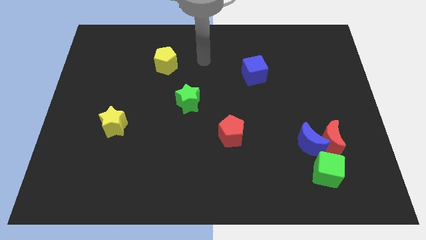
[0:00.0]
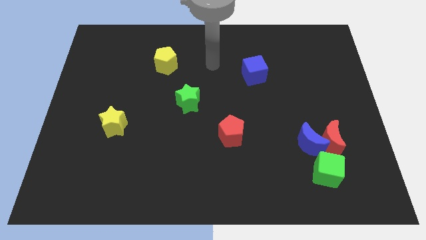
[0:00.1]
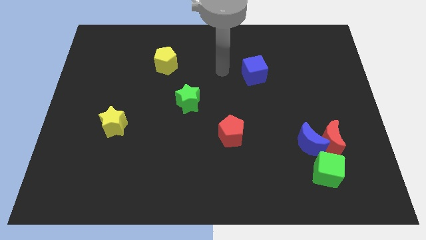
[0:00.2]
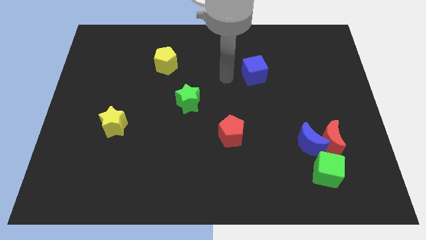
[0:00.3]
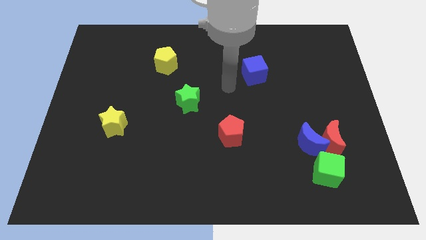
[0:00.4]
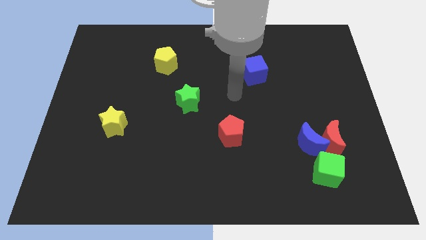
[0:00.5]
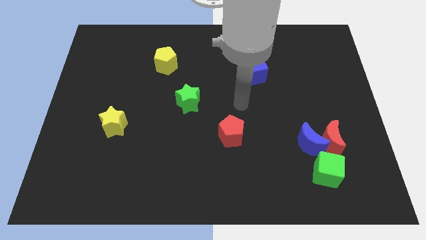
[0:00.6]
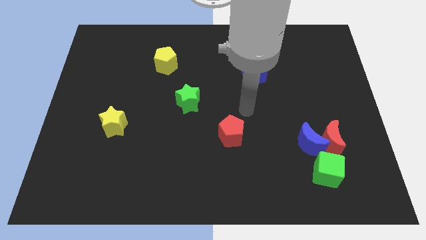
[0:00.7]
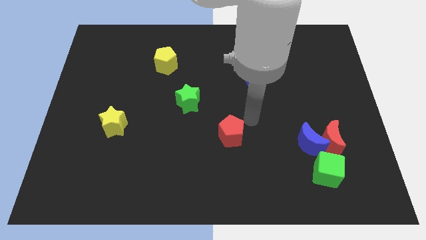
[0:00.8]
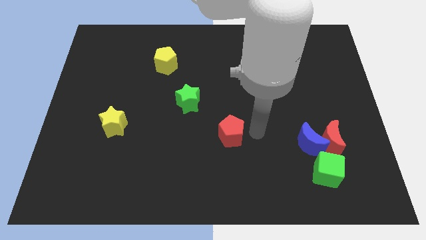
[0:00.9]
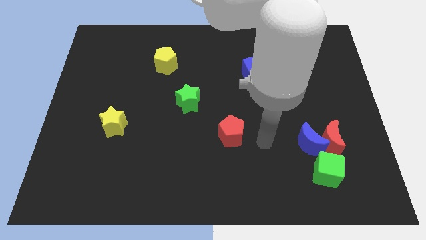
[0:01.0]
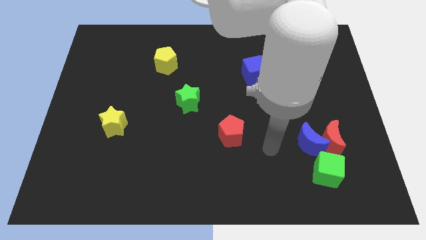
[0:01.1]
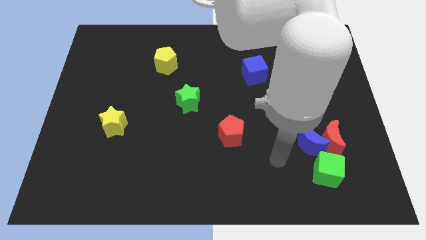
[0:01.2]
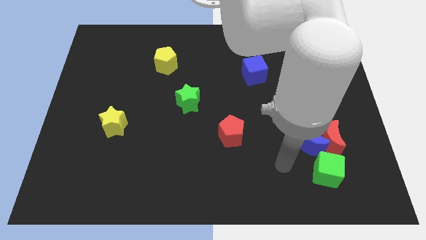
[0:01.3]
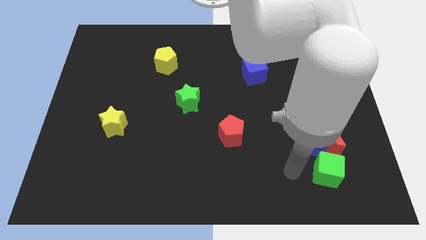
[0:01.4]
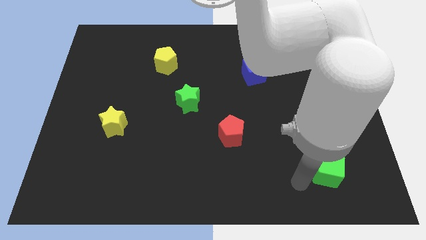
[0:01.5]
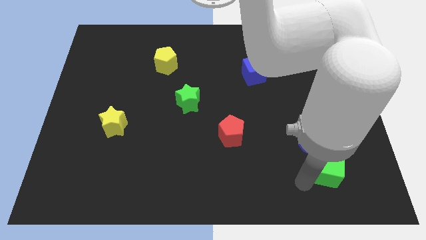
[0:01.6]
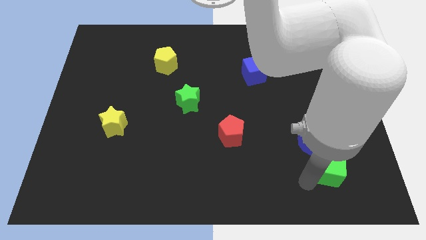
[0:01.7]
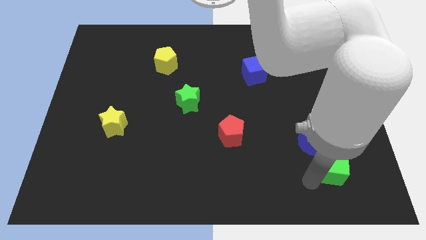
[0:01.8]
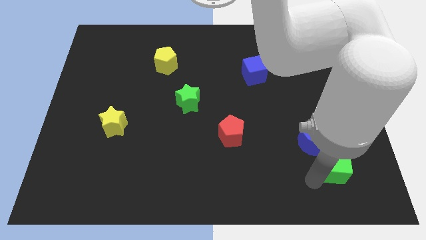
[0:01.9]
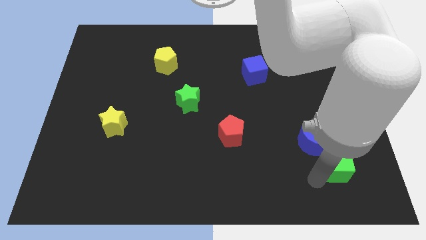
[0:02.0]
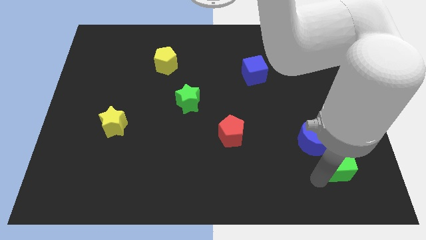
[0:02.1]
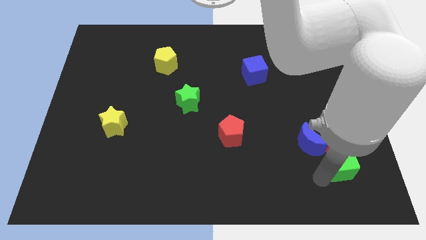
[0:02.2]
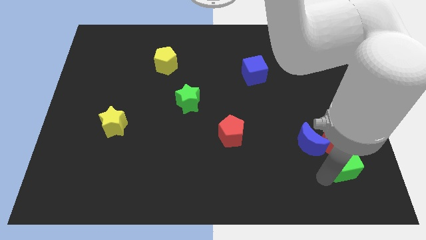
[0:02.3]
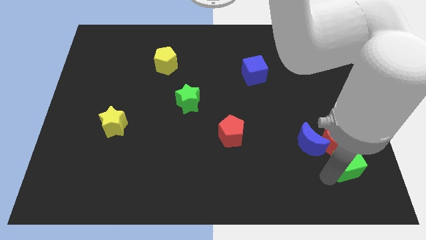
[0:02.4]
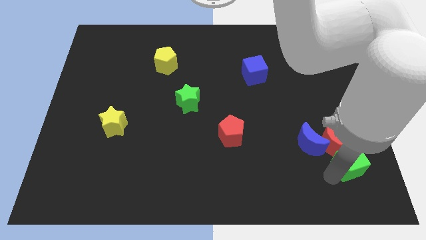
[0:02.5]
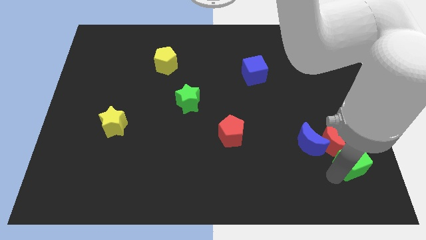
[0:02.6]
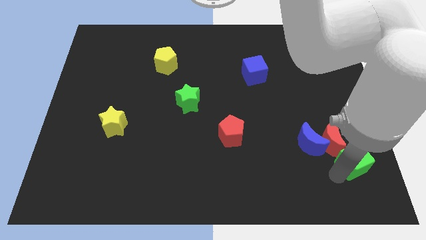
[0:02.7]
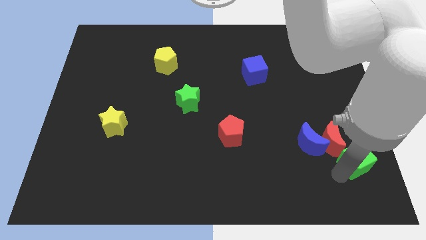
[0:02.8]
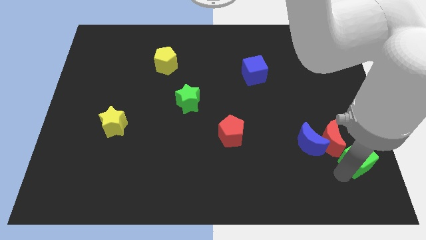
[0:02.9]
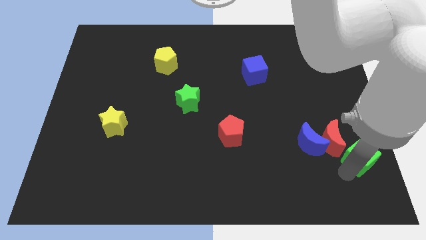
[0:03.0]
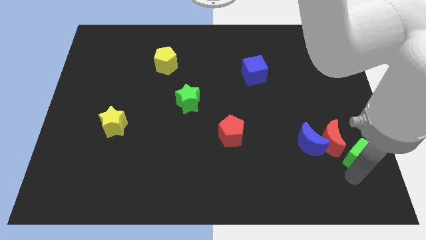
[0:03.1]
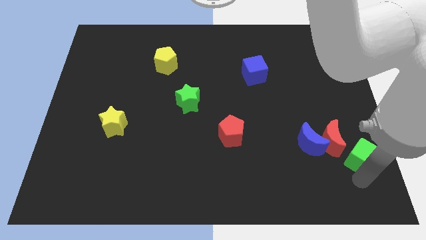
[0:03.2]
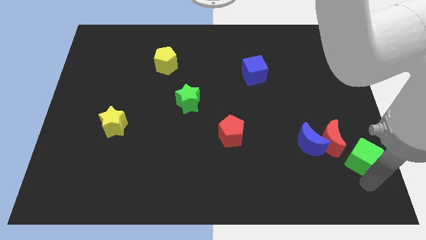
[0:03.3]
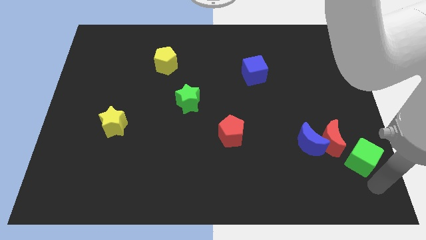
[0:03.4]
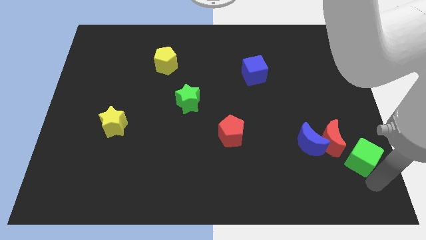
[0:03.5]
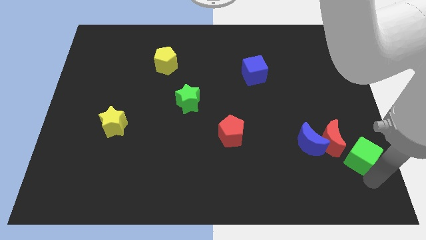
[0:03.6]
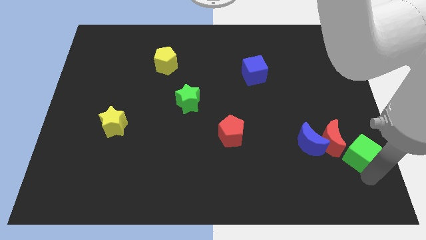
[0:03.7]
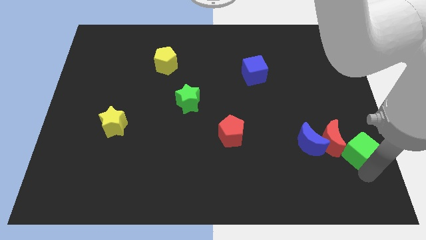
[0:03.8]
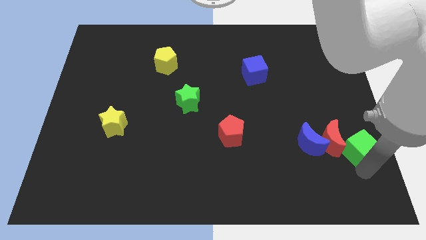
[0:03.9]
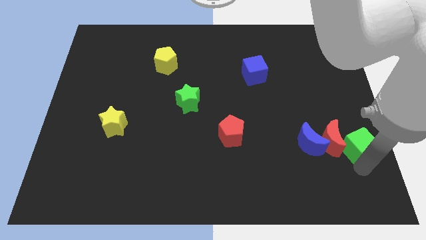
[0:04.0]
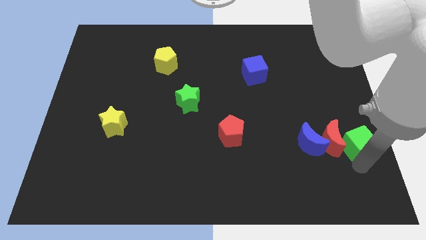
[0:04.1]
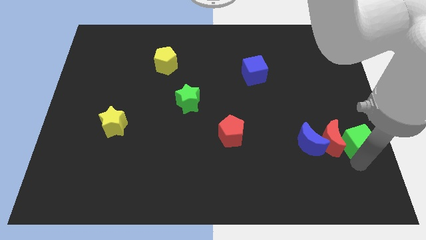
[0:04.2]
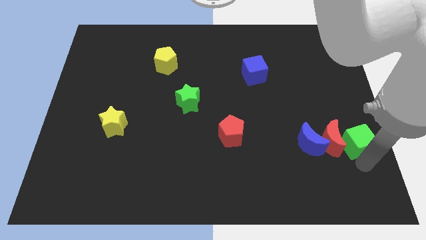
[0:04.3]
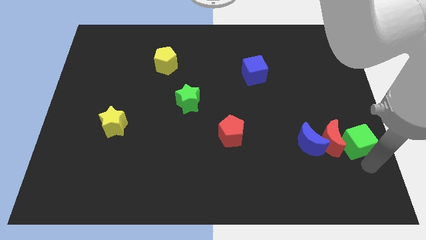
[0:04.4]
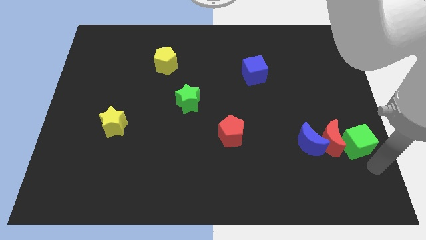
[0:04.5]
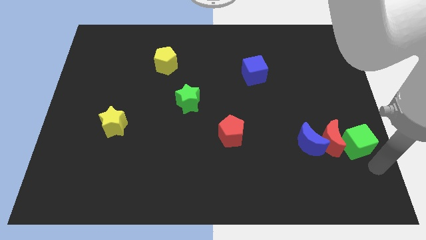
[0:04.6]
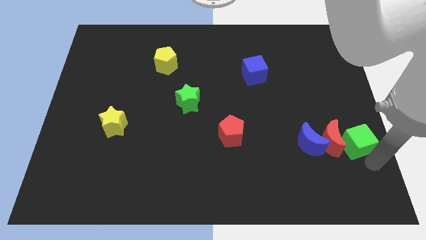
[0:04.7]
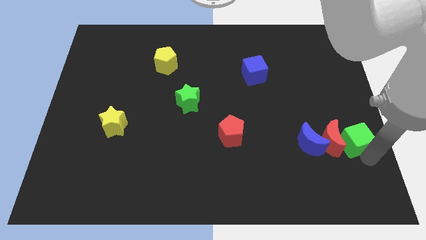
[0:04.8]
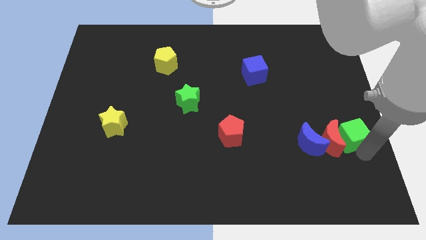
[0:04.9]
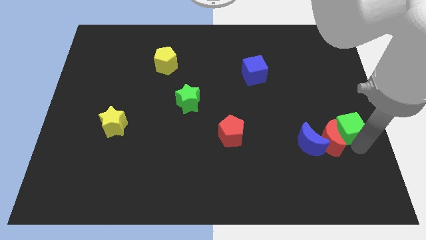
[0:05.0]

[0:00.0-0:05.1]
slide the green cube slightly up

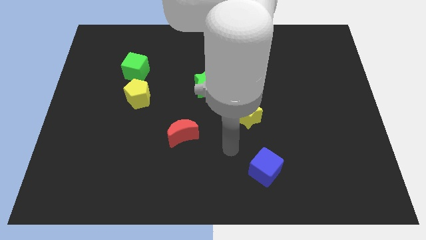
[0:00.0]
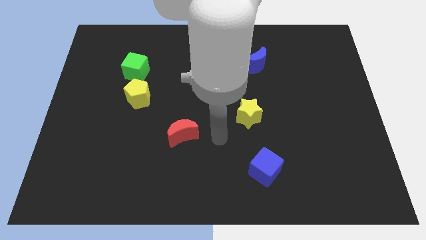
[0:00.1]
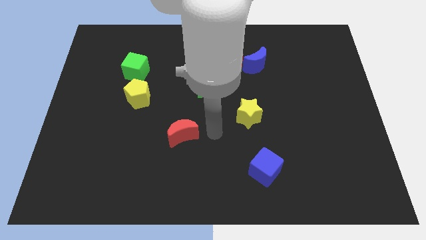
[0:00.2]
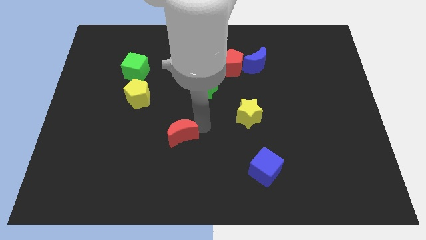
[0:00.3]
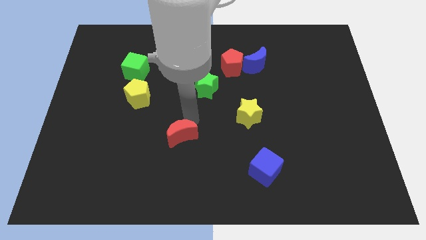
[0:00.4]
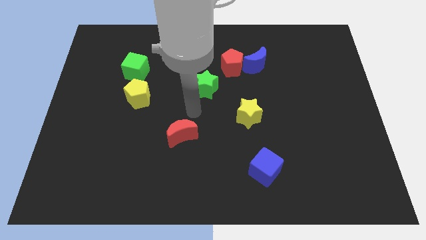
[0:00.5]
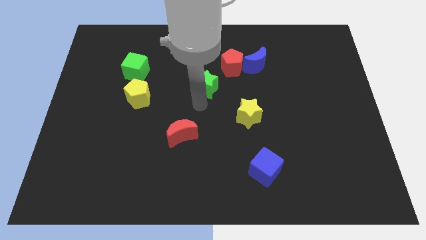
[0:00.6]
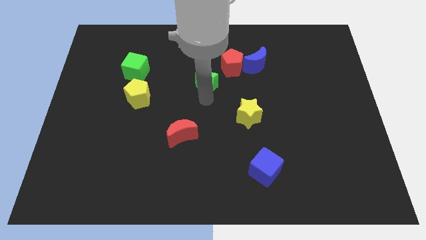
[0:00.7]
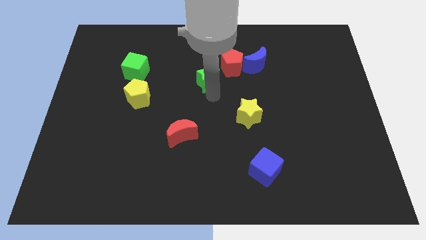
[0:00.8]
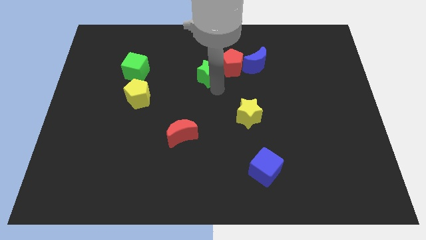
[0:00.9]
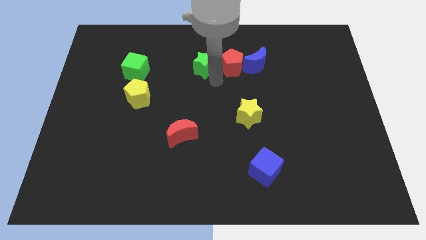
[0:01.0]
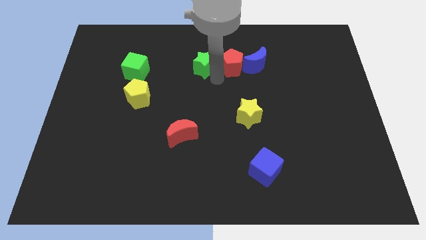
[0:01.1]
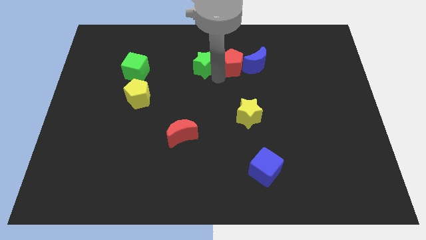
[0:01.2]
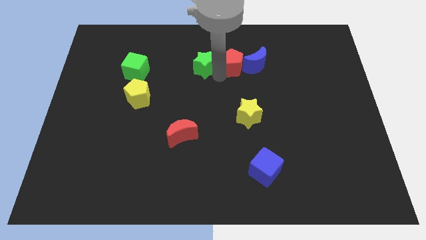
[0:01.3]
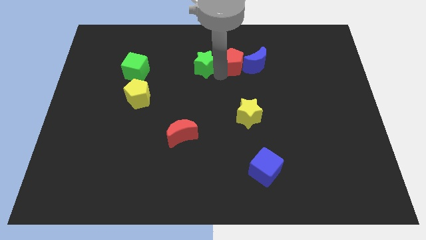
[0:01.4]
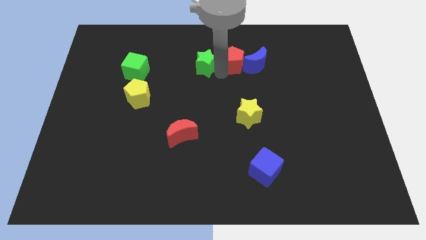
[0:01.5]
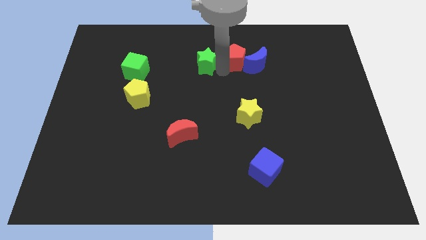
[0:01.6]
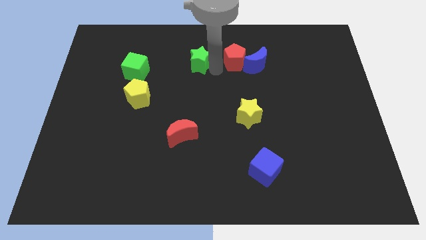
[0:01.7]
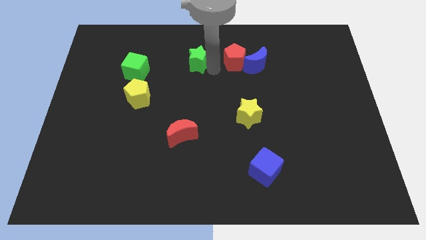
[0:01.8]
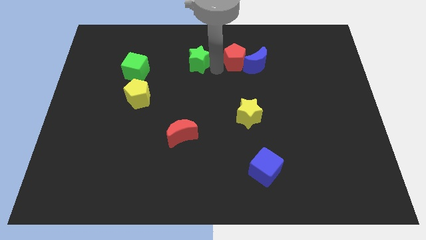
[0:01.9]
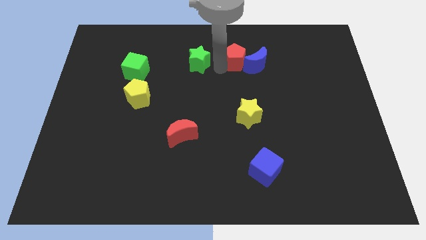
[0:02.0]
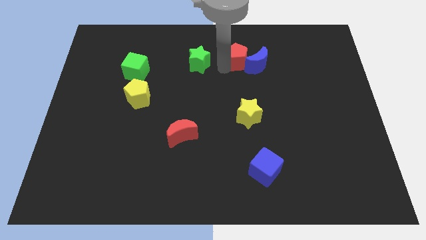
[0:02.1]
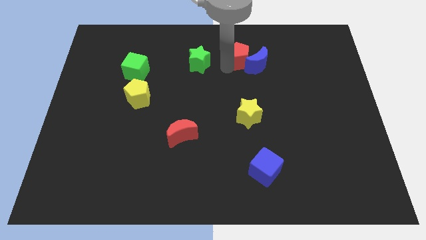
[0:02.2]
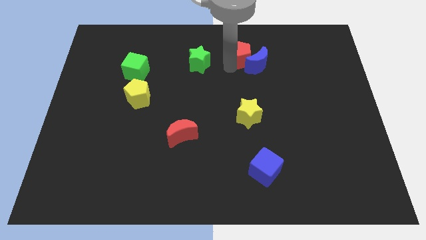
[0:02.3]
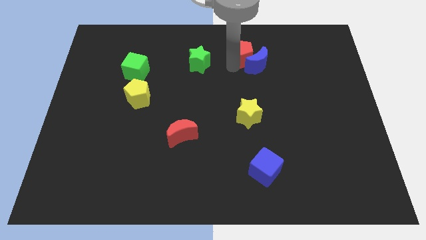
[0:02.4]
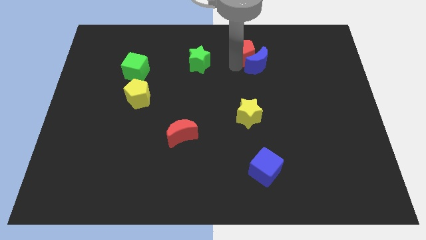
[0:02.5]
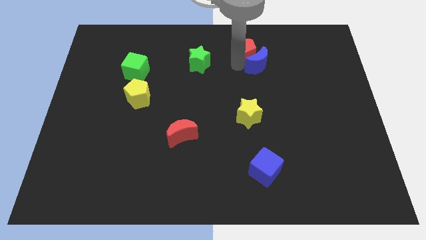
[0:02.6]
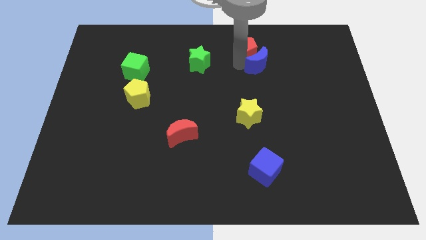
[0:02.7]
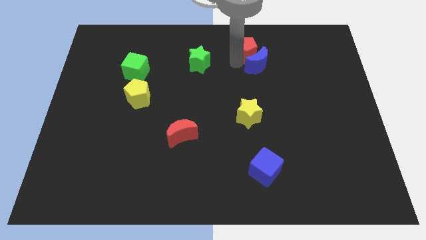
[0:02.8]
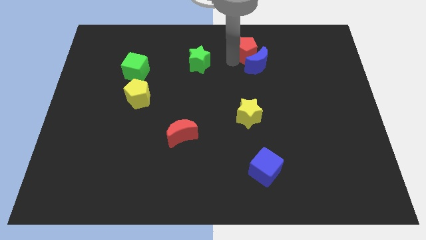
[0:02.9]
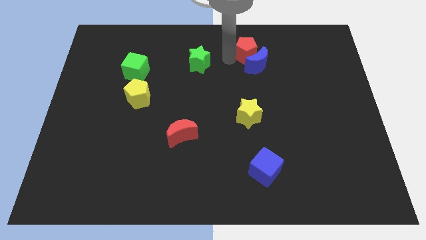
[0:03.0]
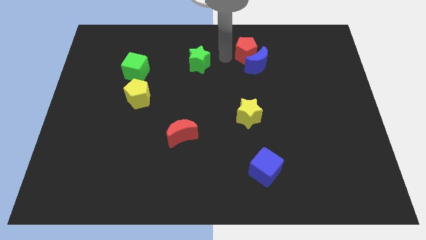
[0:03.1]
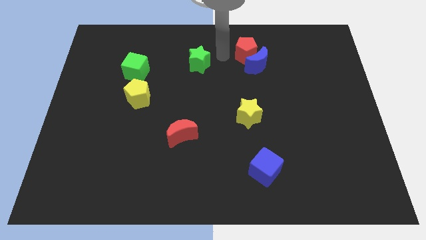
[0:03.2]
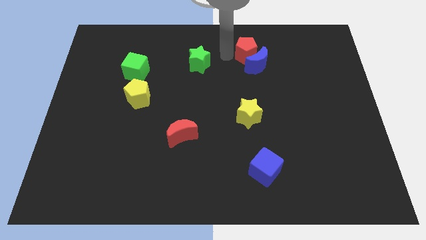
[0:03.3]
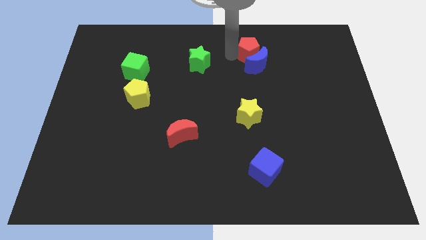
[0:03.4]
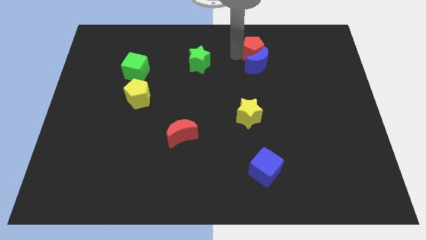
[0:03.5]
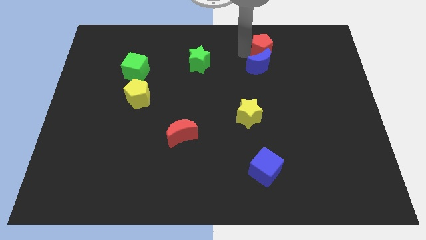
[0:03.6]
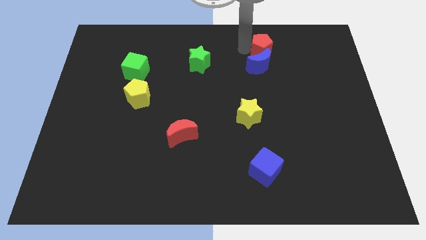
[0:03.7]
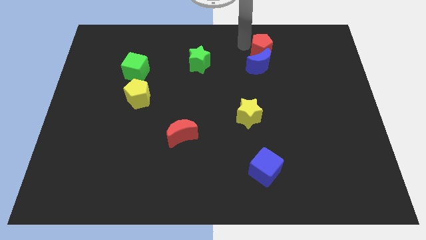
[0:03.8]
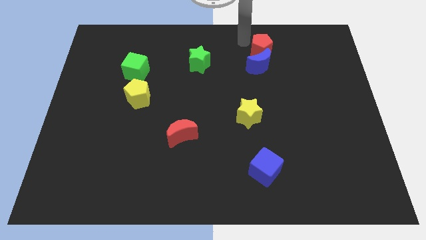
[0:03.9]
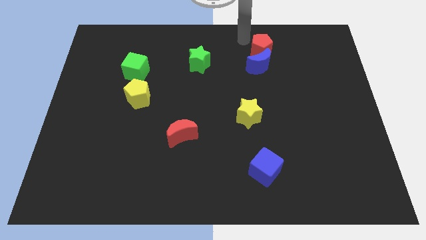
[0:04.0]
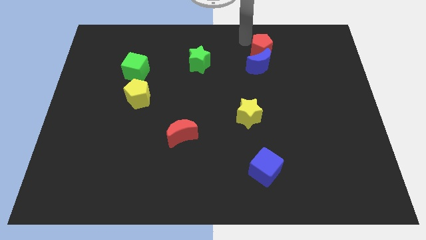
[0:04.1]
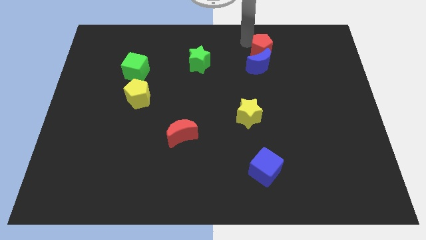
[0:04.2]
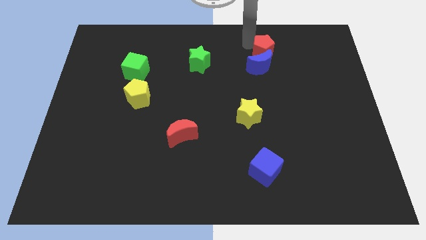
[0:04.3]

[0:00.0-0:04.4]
push the red pentagon right somewhat
